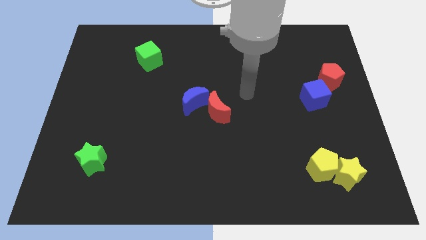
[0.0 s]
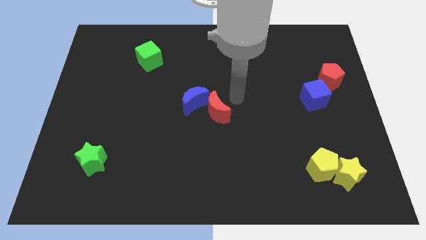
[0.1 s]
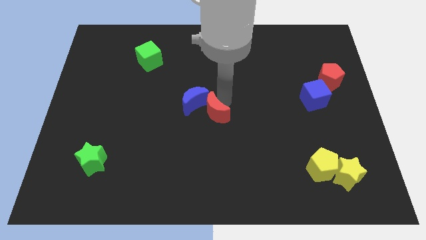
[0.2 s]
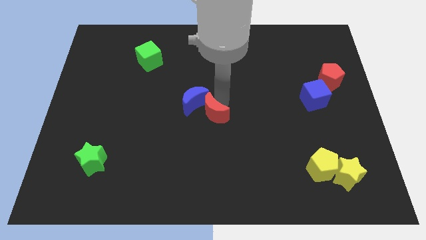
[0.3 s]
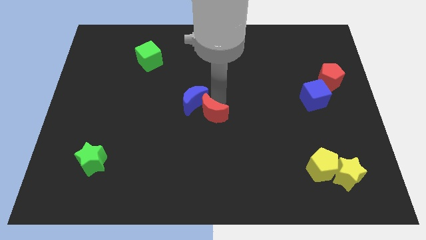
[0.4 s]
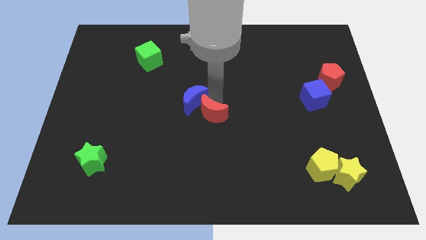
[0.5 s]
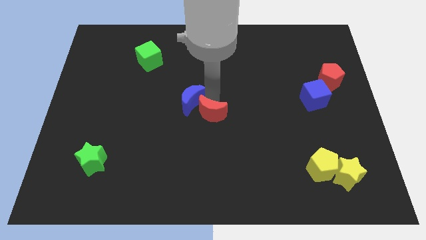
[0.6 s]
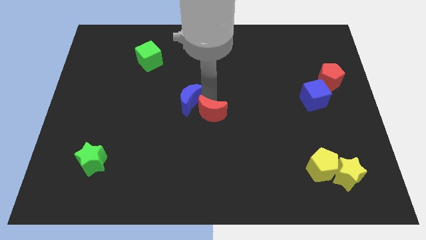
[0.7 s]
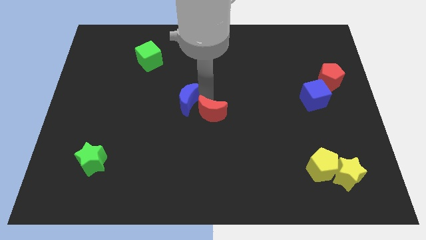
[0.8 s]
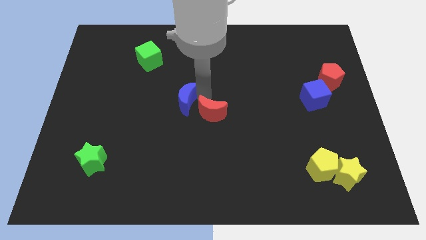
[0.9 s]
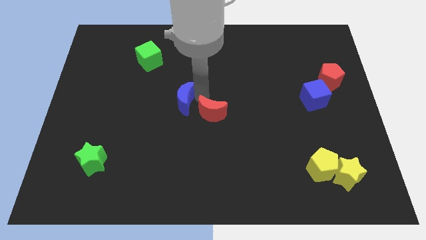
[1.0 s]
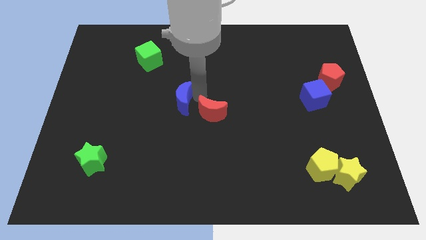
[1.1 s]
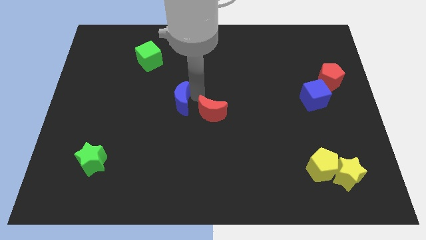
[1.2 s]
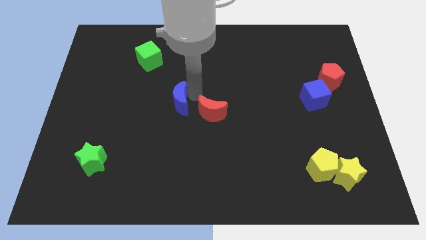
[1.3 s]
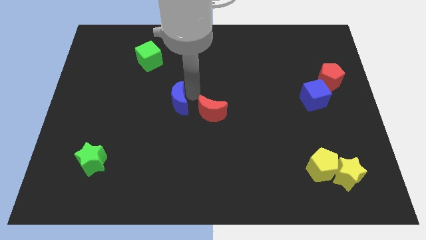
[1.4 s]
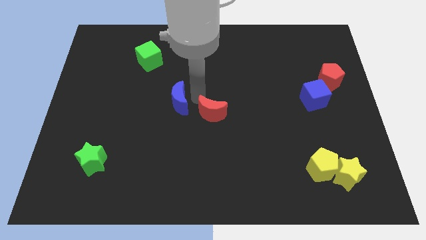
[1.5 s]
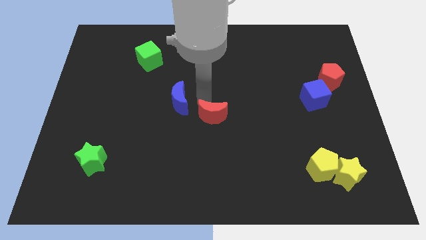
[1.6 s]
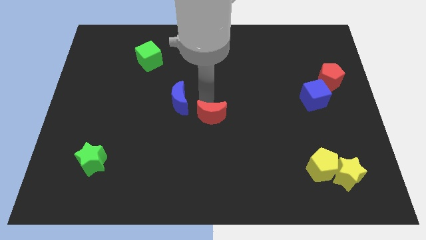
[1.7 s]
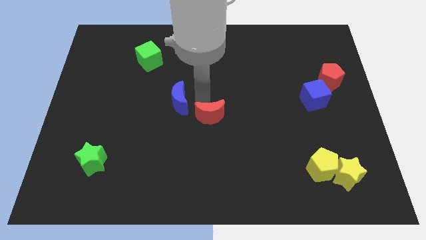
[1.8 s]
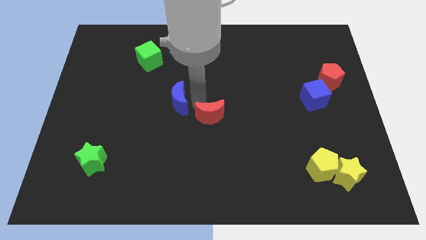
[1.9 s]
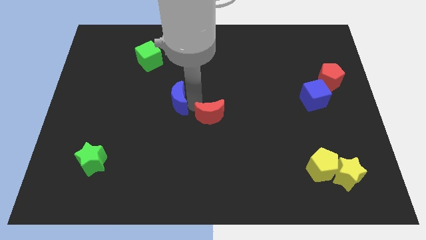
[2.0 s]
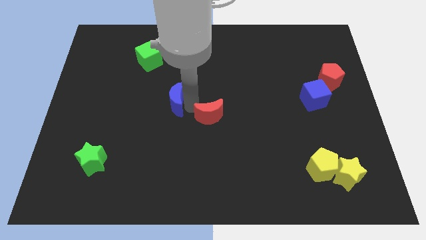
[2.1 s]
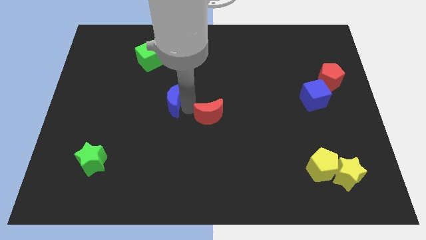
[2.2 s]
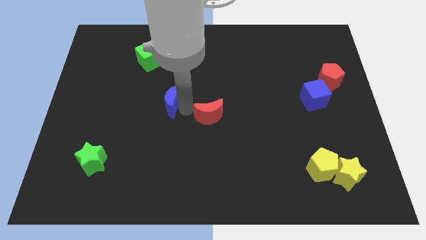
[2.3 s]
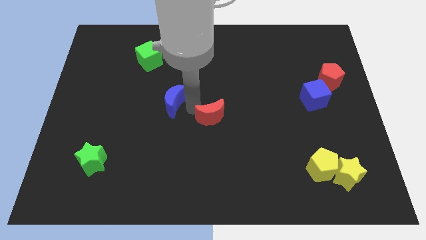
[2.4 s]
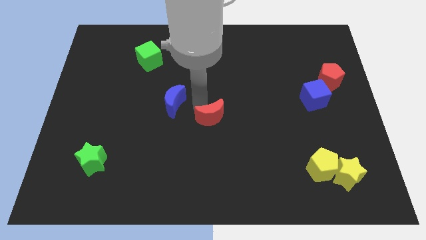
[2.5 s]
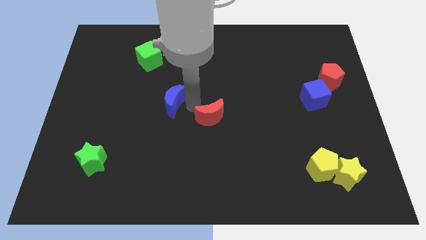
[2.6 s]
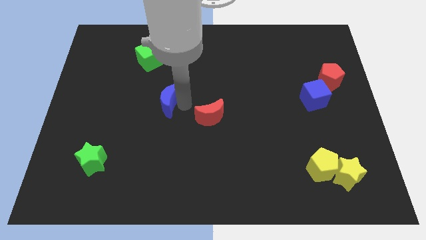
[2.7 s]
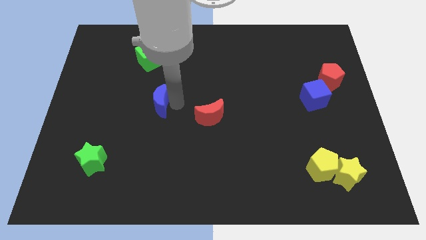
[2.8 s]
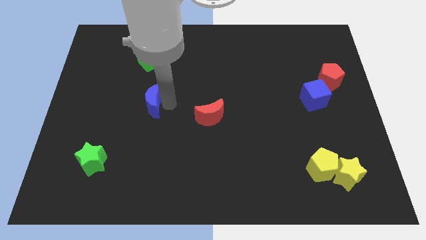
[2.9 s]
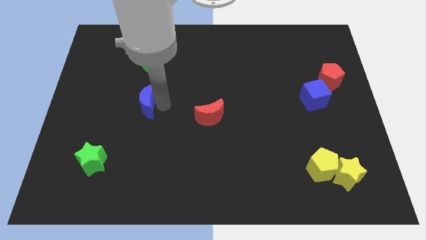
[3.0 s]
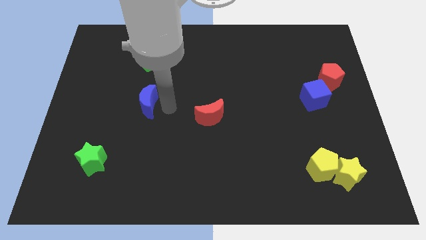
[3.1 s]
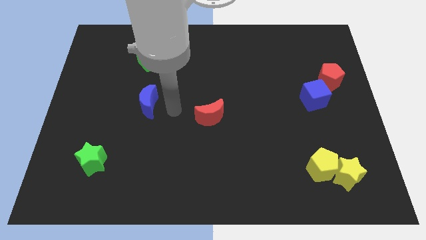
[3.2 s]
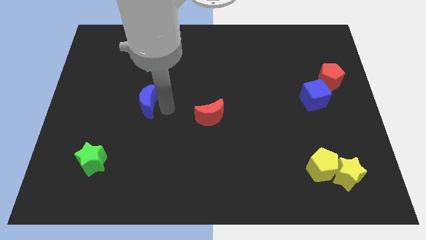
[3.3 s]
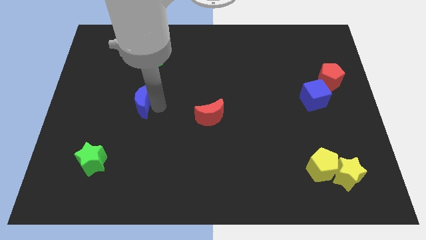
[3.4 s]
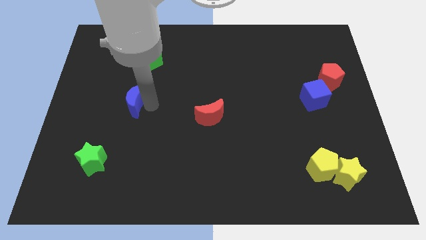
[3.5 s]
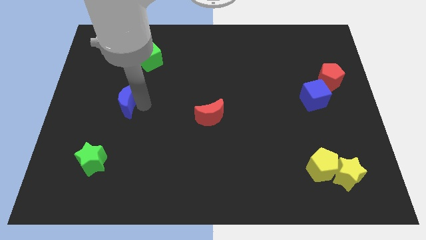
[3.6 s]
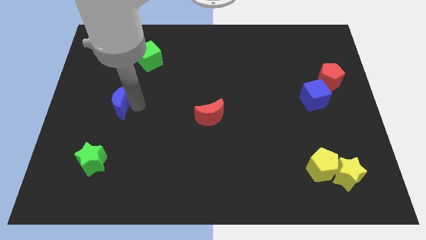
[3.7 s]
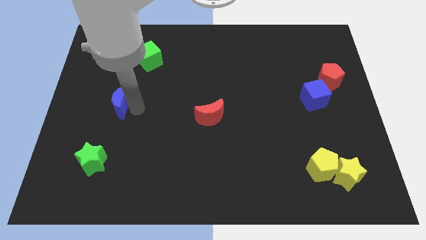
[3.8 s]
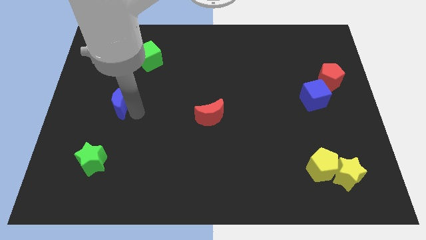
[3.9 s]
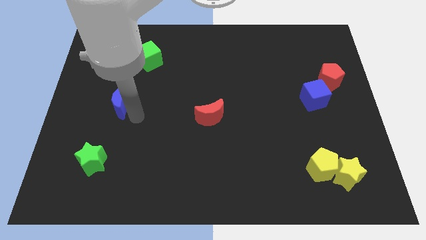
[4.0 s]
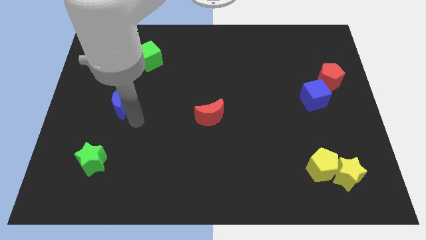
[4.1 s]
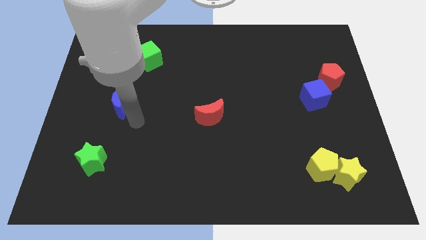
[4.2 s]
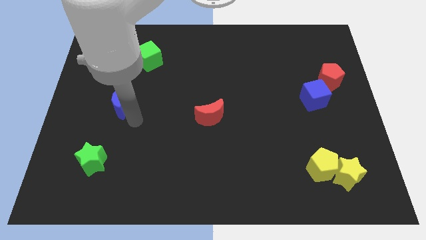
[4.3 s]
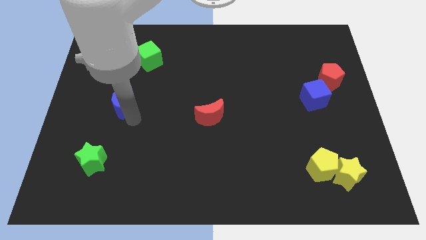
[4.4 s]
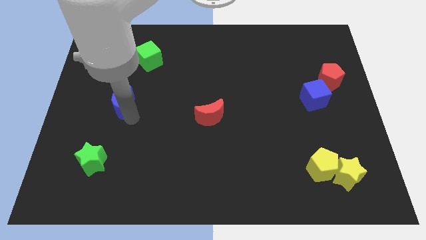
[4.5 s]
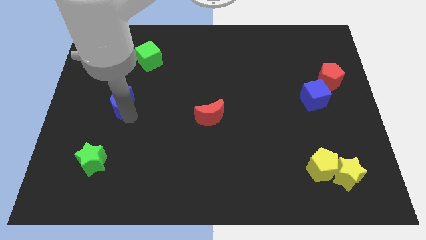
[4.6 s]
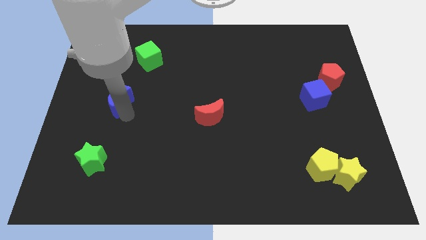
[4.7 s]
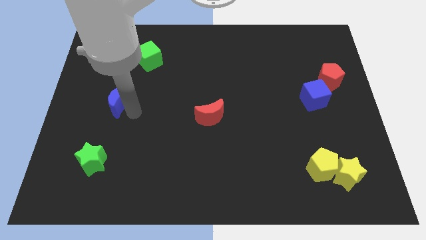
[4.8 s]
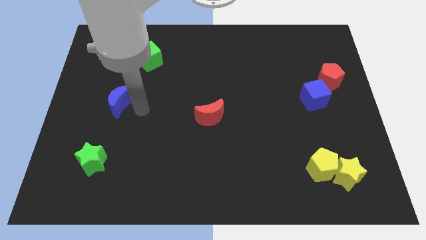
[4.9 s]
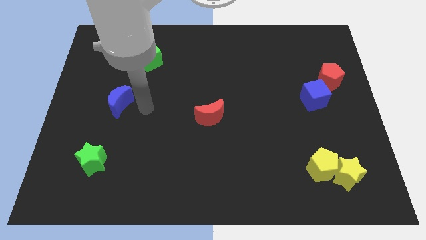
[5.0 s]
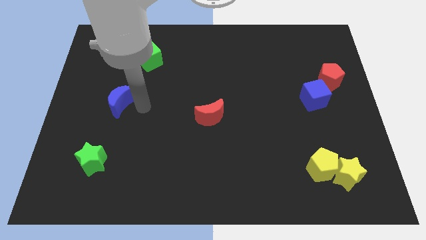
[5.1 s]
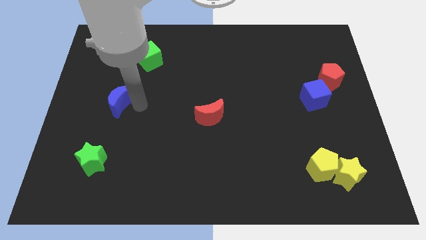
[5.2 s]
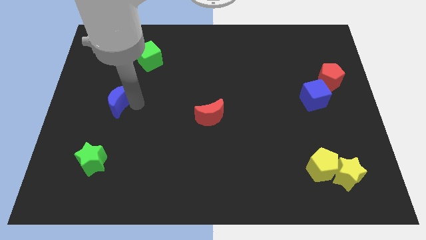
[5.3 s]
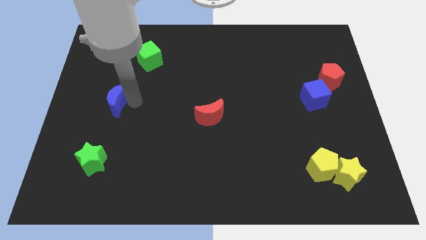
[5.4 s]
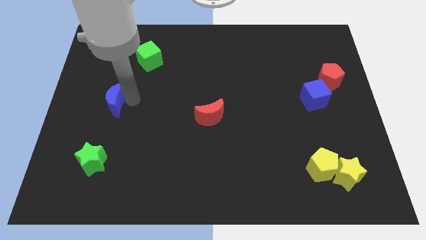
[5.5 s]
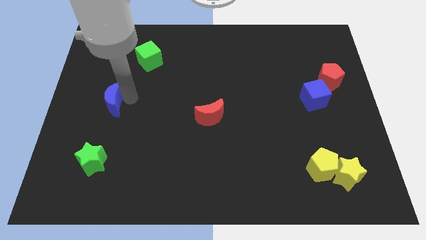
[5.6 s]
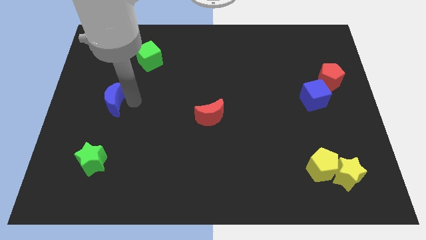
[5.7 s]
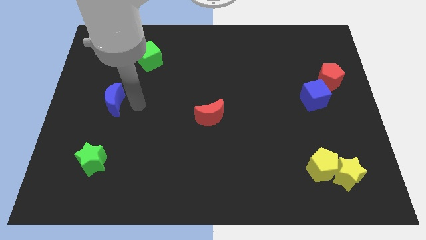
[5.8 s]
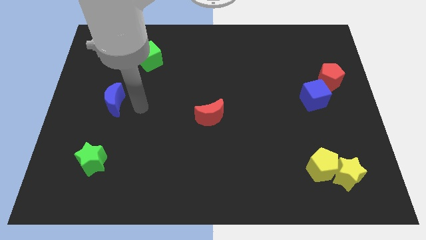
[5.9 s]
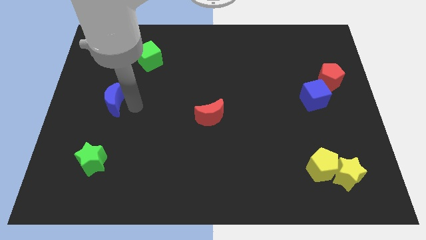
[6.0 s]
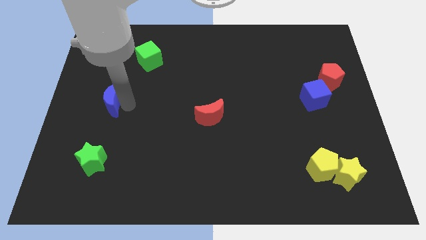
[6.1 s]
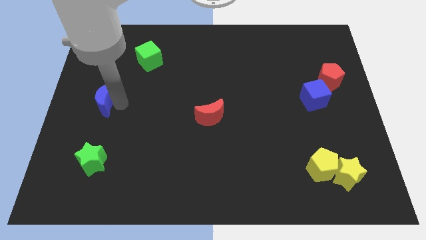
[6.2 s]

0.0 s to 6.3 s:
slide the blue moon to the center left
